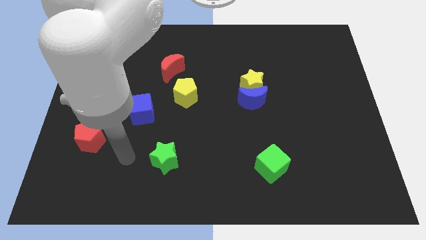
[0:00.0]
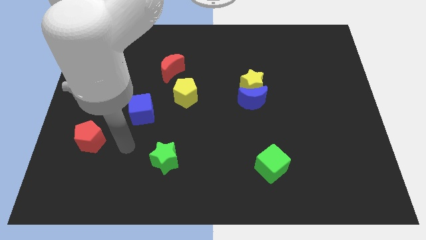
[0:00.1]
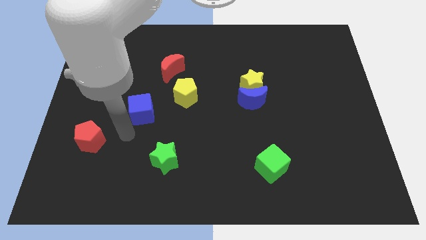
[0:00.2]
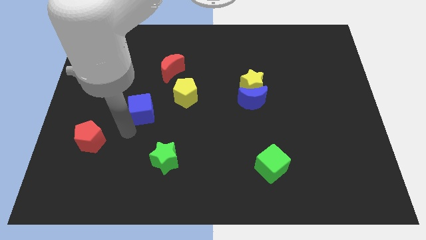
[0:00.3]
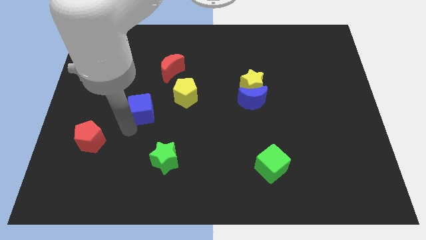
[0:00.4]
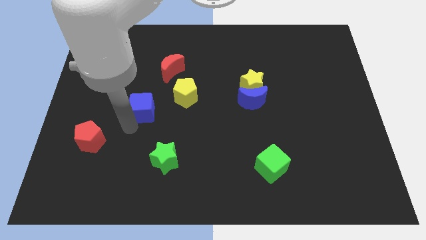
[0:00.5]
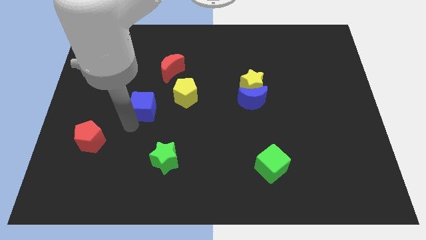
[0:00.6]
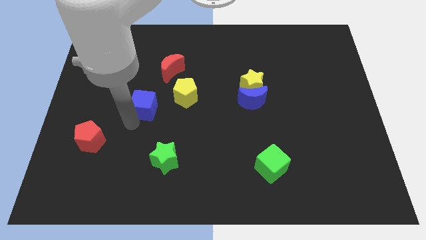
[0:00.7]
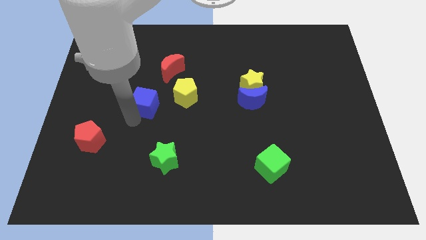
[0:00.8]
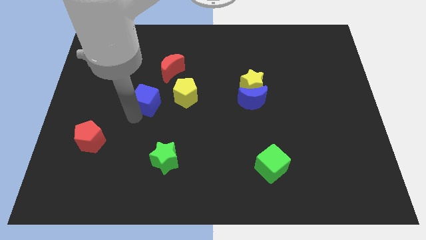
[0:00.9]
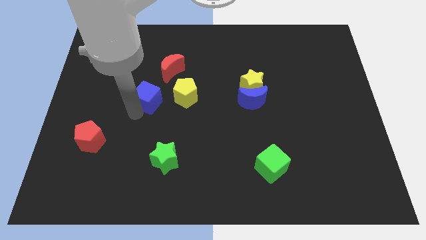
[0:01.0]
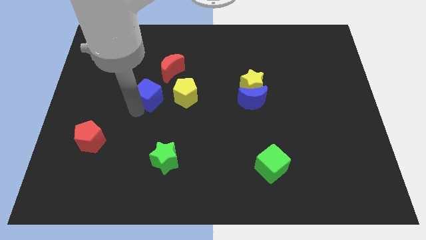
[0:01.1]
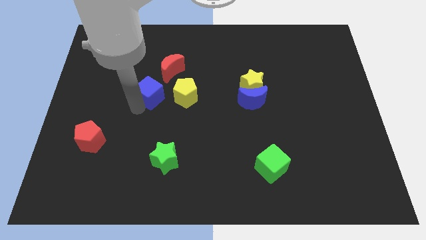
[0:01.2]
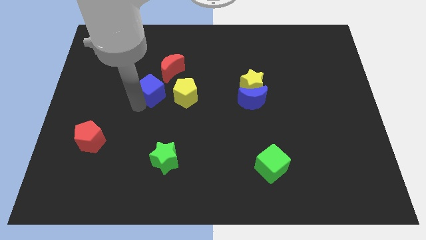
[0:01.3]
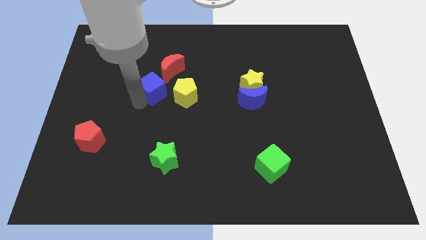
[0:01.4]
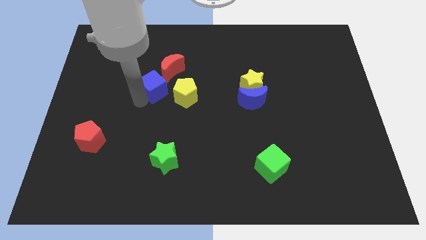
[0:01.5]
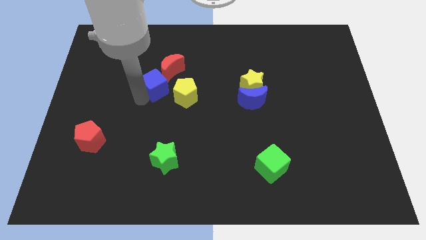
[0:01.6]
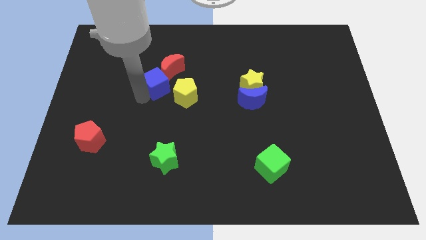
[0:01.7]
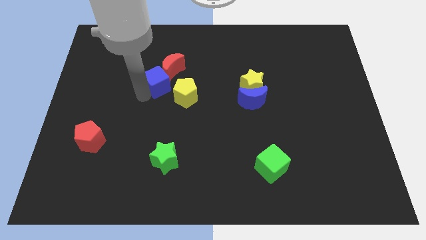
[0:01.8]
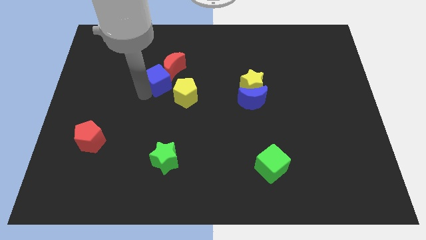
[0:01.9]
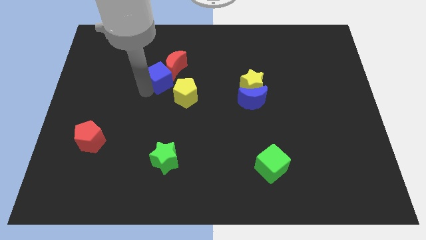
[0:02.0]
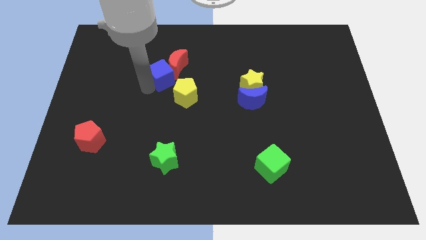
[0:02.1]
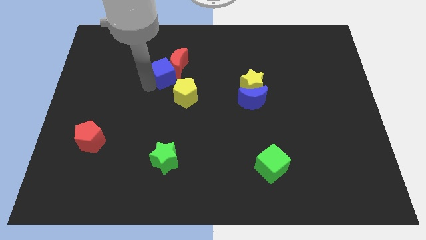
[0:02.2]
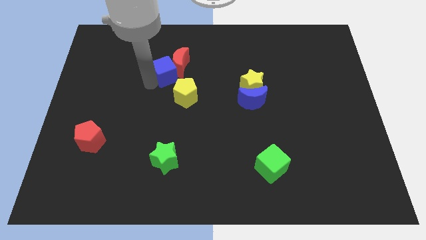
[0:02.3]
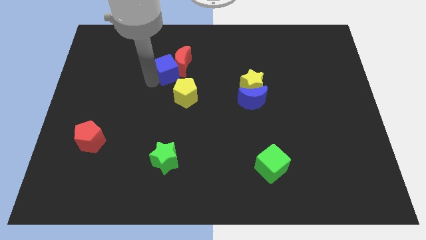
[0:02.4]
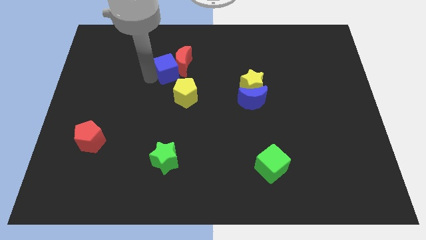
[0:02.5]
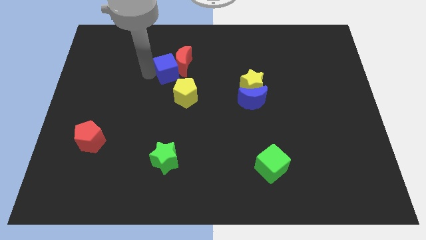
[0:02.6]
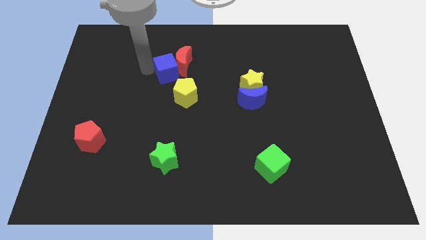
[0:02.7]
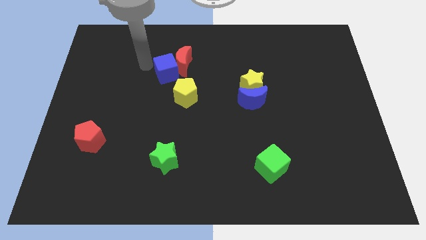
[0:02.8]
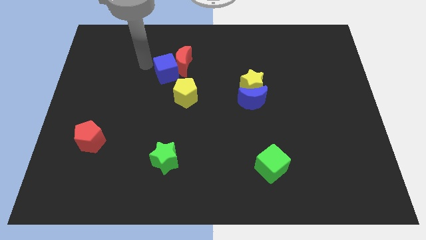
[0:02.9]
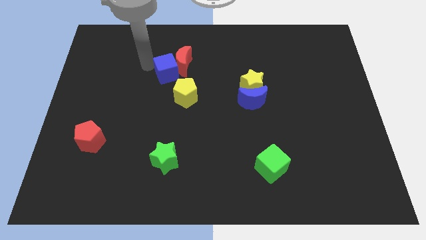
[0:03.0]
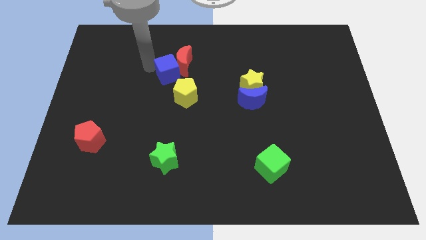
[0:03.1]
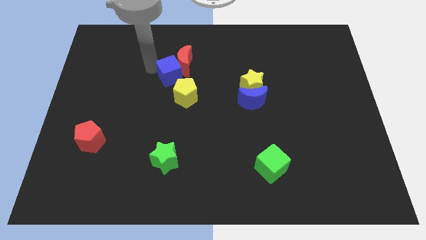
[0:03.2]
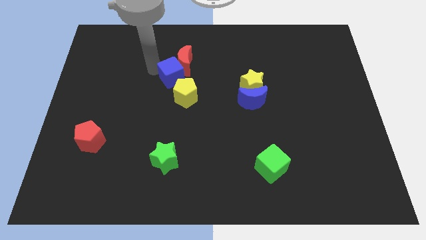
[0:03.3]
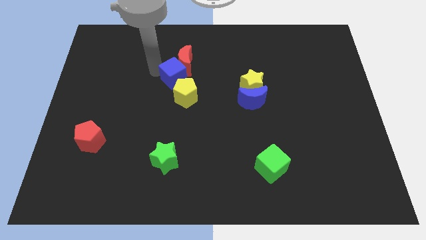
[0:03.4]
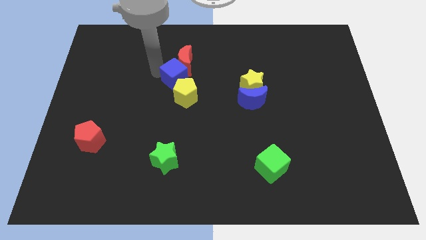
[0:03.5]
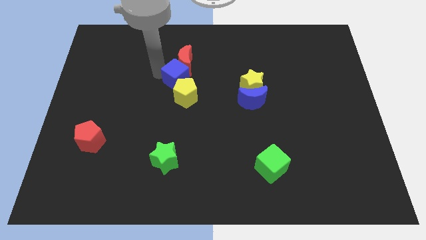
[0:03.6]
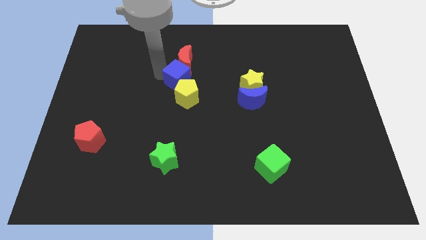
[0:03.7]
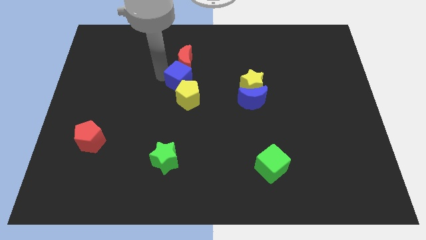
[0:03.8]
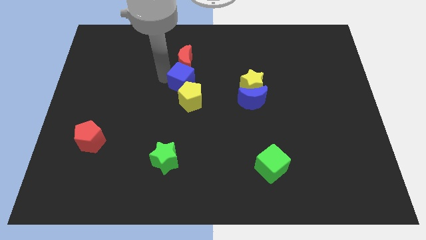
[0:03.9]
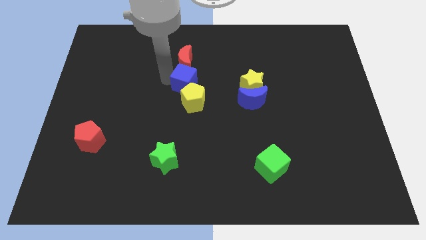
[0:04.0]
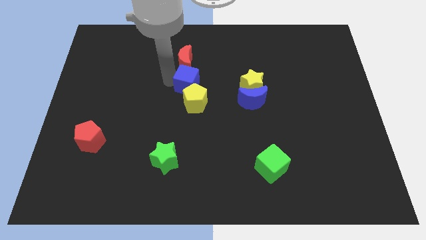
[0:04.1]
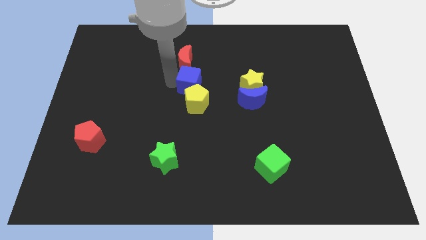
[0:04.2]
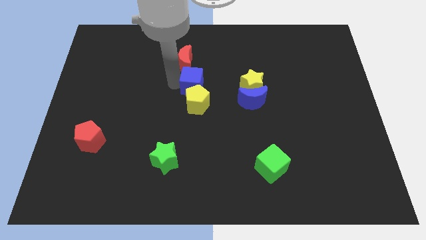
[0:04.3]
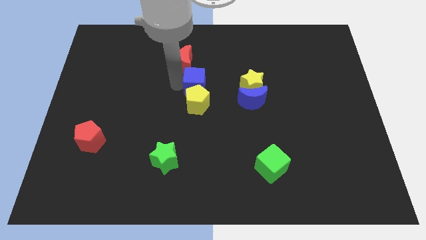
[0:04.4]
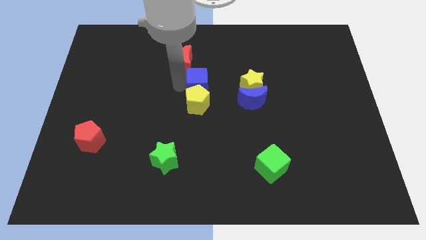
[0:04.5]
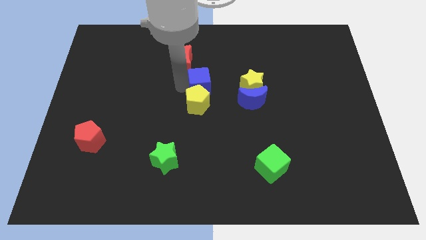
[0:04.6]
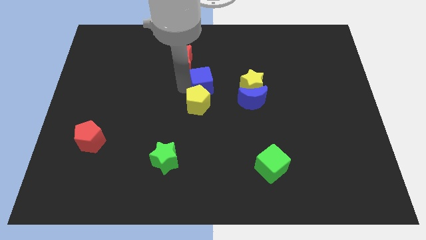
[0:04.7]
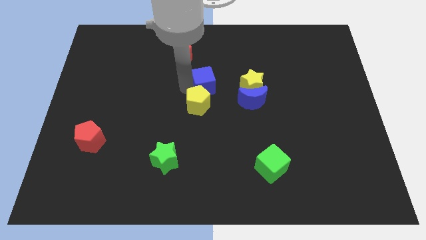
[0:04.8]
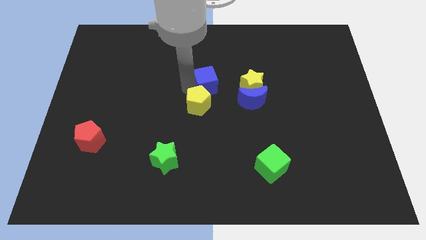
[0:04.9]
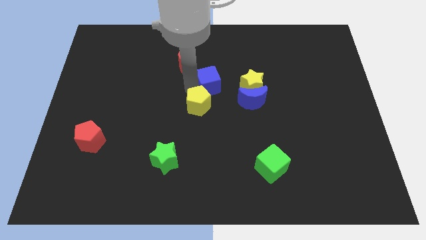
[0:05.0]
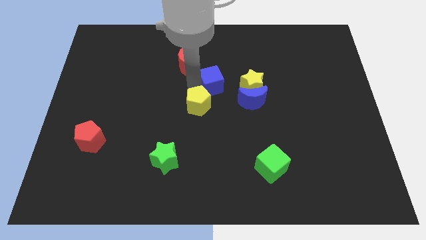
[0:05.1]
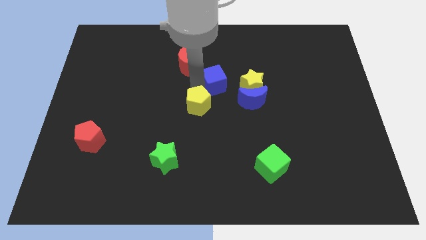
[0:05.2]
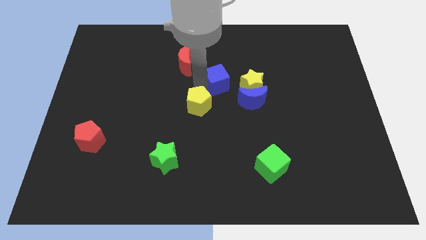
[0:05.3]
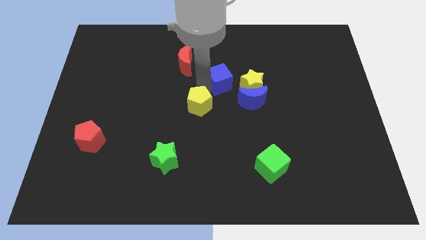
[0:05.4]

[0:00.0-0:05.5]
slide the blue cube diagonally up and to the left of the yellow star

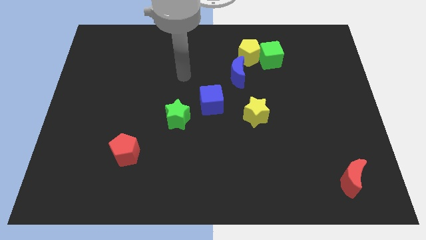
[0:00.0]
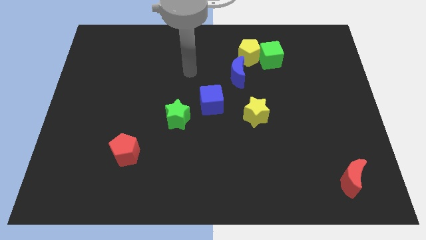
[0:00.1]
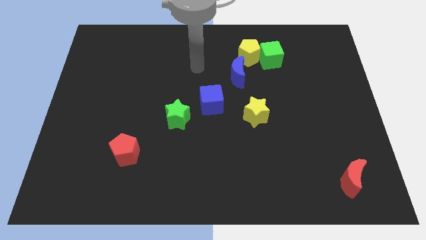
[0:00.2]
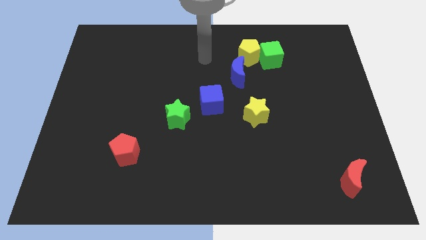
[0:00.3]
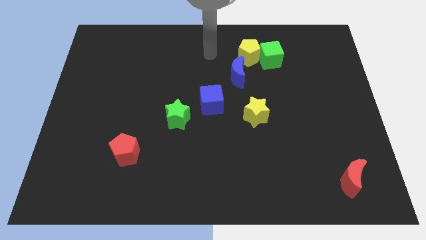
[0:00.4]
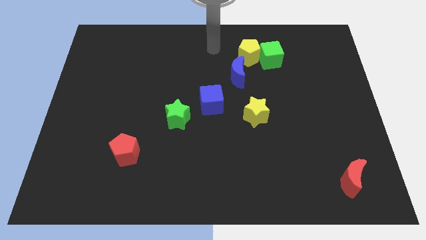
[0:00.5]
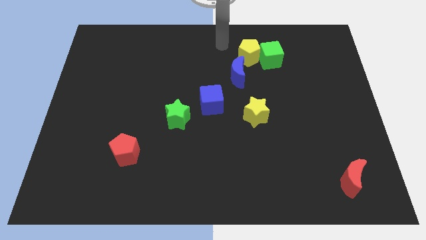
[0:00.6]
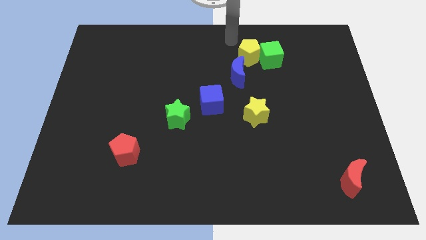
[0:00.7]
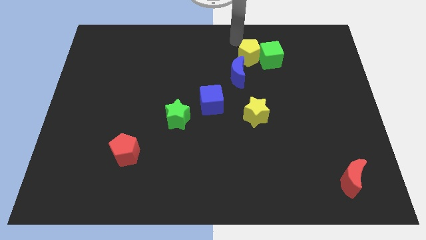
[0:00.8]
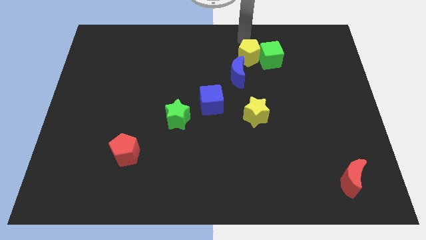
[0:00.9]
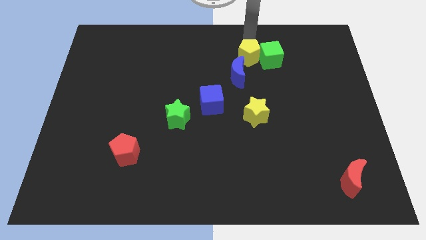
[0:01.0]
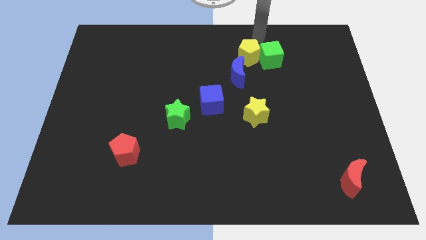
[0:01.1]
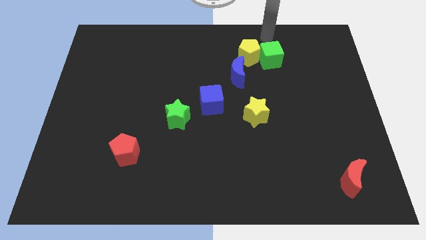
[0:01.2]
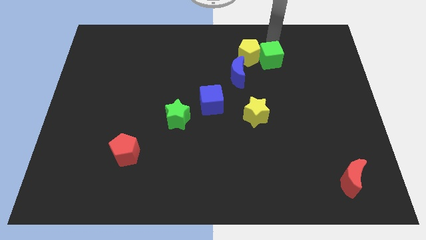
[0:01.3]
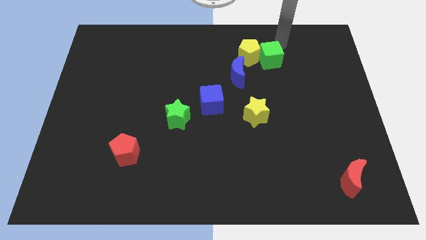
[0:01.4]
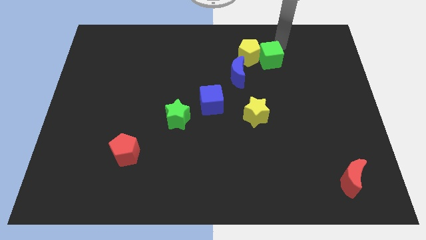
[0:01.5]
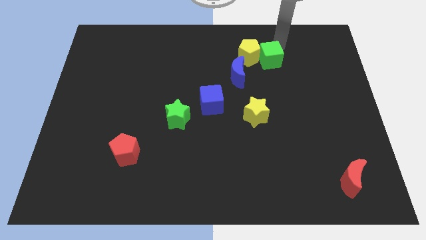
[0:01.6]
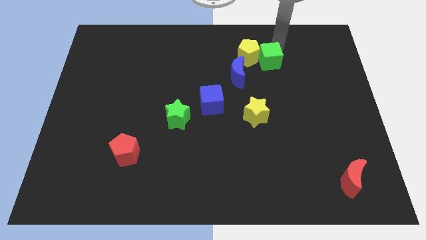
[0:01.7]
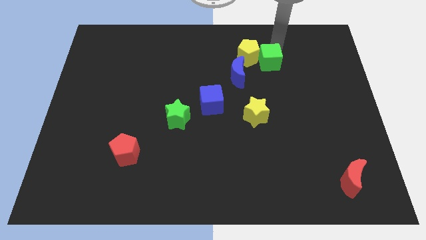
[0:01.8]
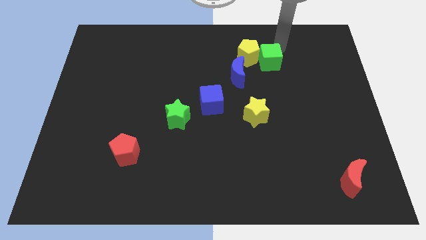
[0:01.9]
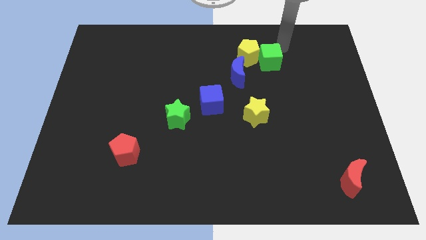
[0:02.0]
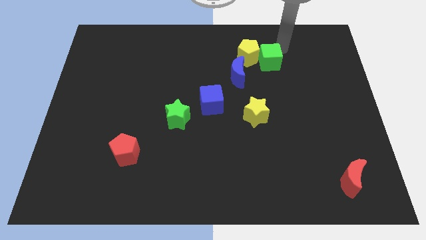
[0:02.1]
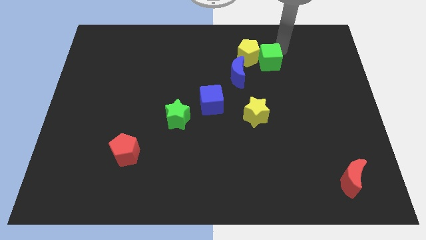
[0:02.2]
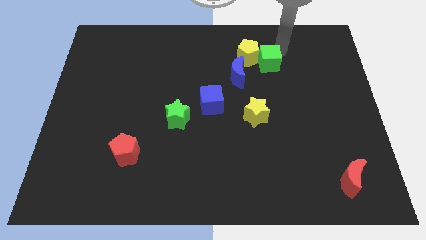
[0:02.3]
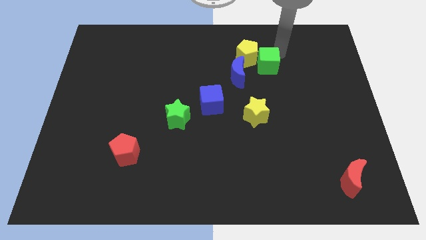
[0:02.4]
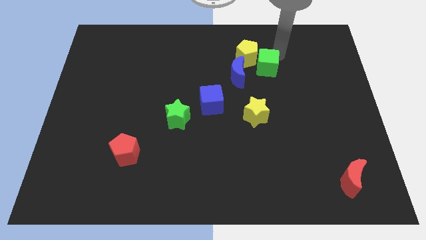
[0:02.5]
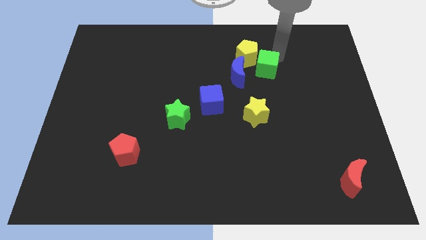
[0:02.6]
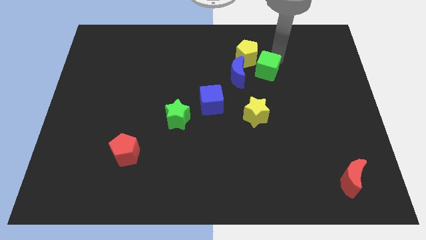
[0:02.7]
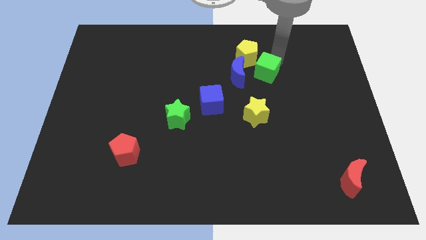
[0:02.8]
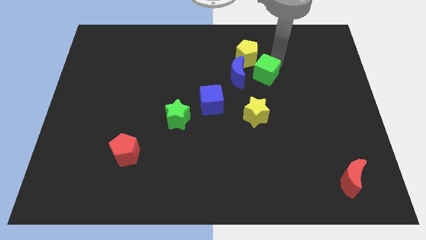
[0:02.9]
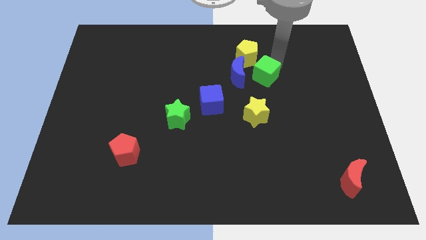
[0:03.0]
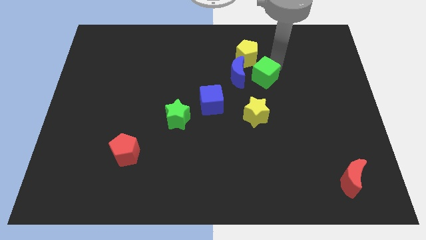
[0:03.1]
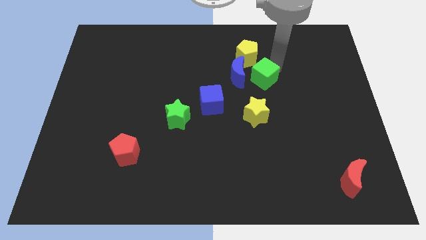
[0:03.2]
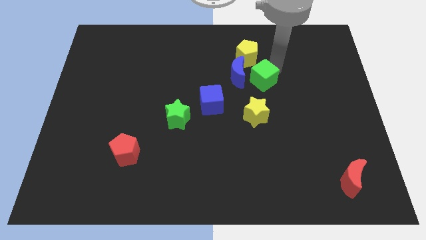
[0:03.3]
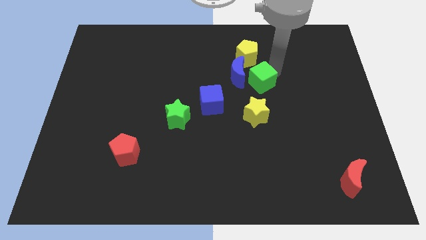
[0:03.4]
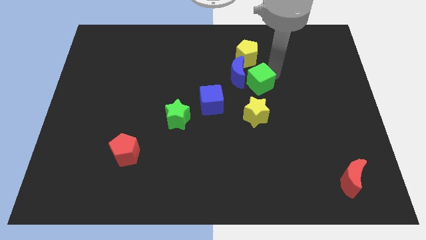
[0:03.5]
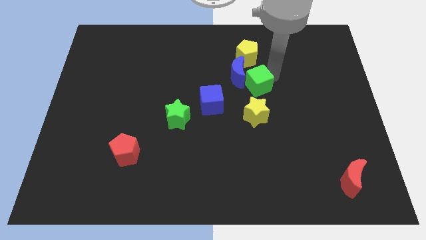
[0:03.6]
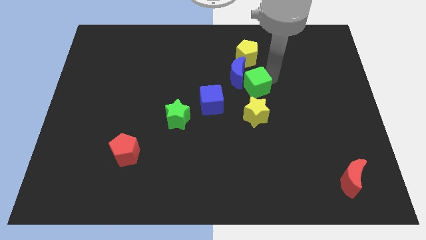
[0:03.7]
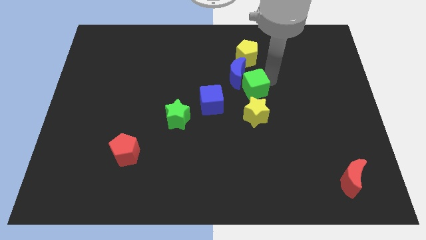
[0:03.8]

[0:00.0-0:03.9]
put the green cube to the top right of the blue cube
